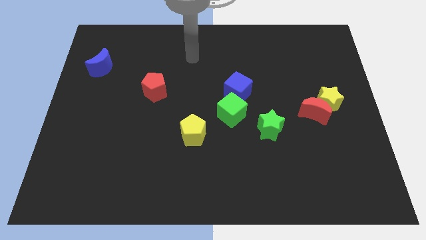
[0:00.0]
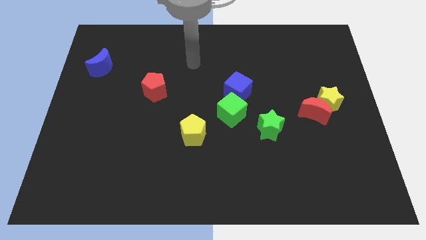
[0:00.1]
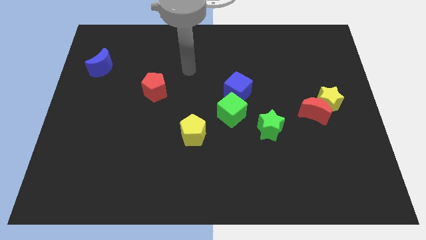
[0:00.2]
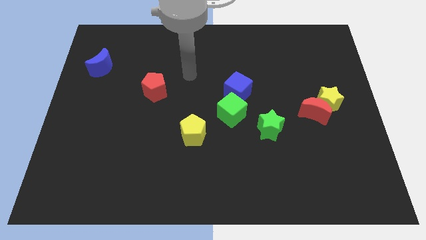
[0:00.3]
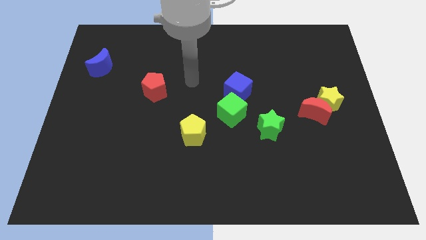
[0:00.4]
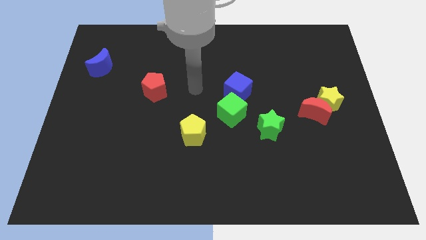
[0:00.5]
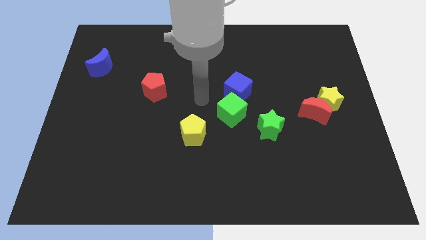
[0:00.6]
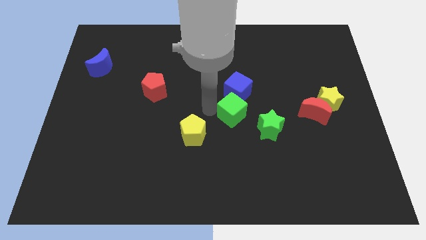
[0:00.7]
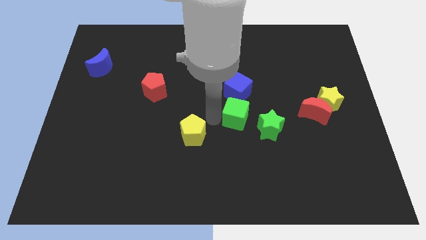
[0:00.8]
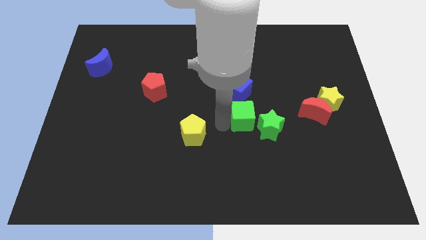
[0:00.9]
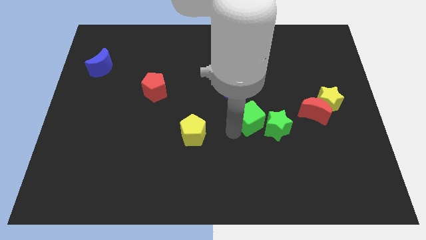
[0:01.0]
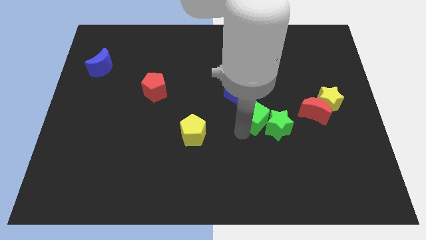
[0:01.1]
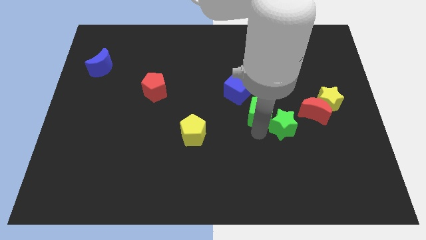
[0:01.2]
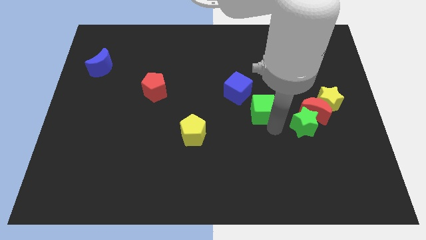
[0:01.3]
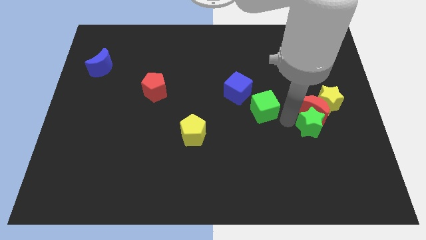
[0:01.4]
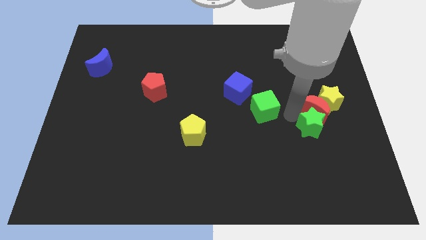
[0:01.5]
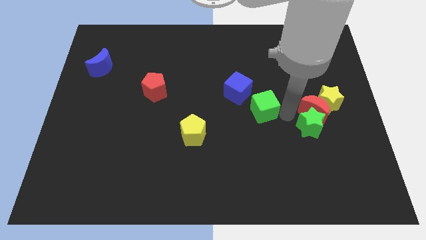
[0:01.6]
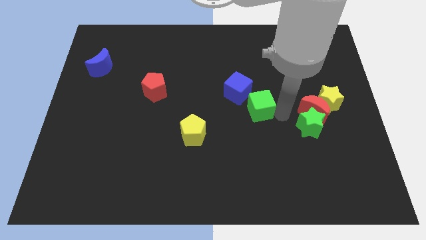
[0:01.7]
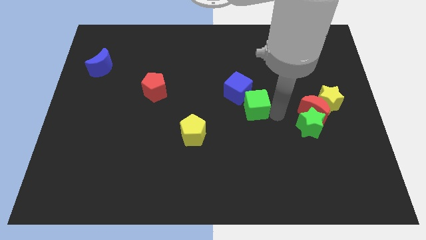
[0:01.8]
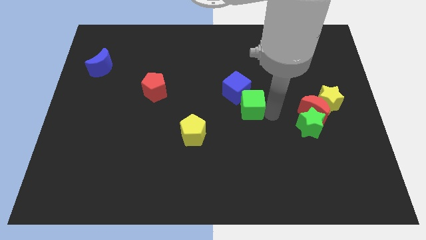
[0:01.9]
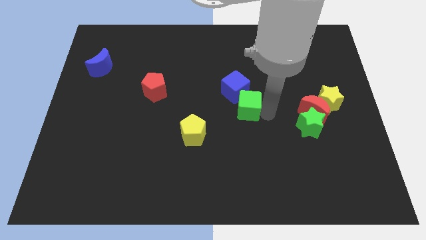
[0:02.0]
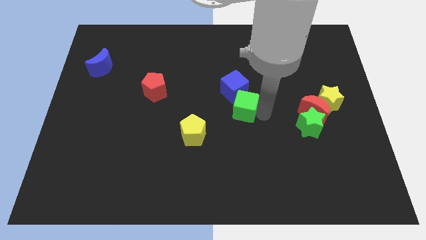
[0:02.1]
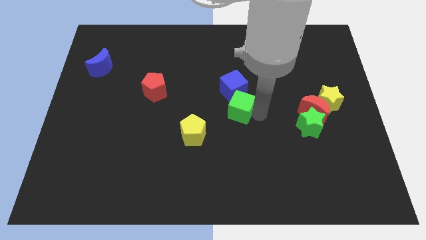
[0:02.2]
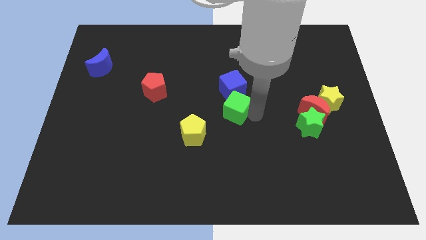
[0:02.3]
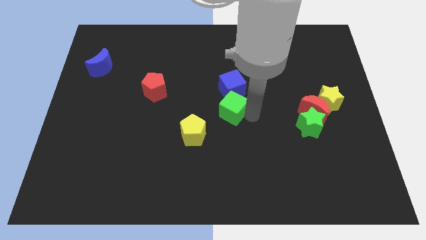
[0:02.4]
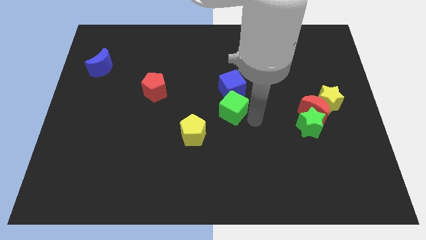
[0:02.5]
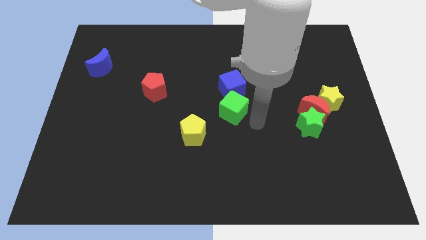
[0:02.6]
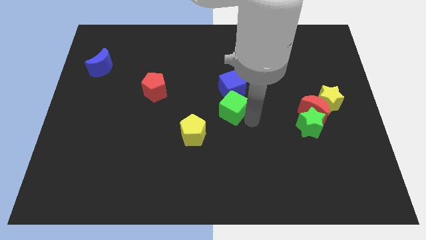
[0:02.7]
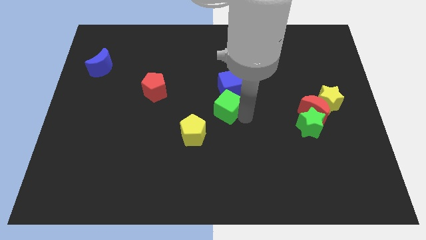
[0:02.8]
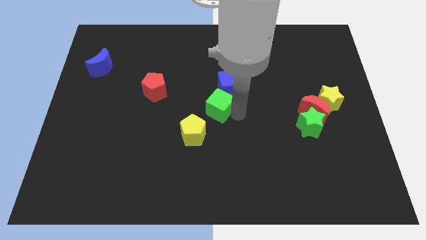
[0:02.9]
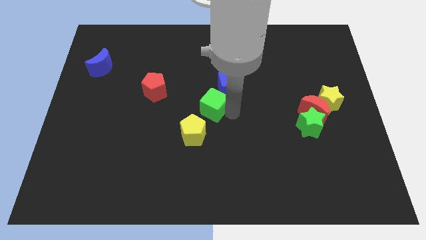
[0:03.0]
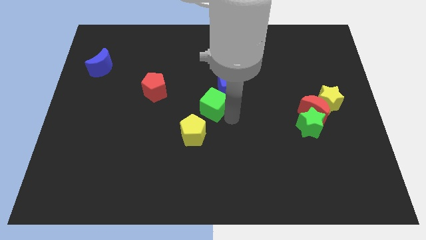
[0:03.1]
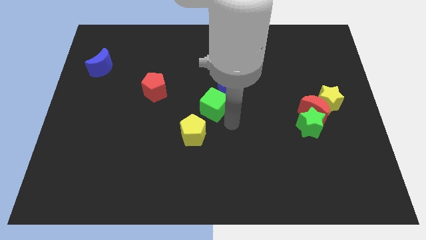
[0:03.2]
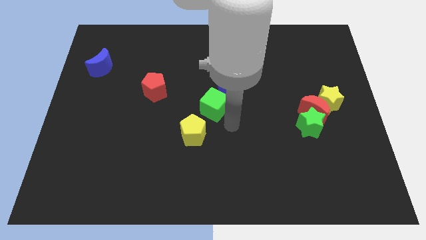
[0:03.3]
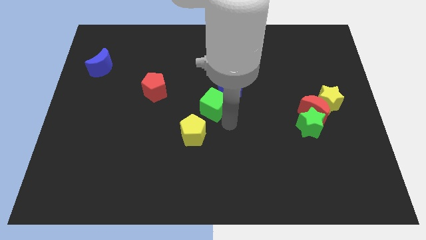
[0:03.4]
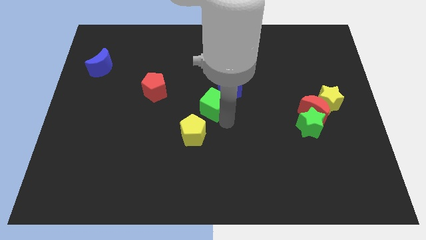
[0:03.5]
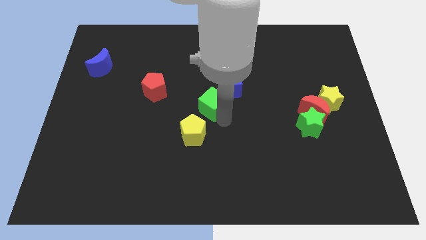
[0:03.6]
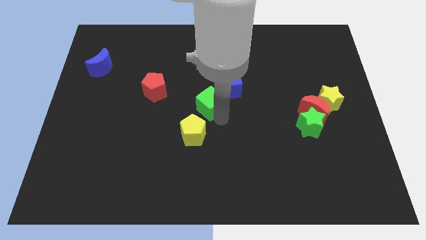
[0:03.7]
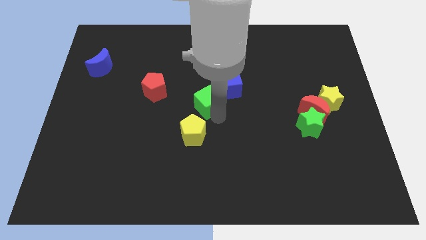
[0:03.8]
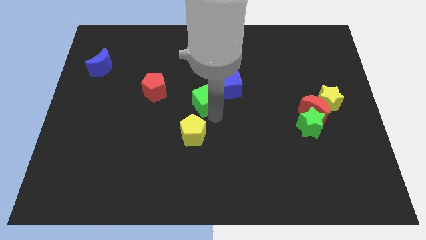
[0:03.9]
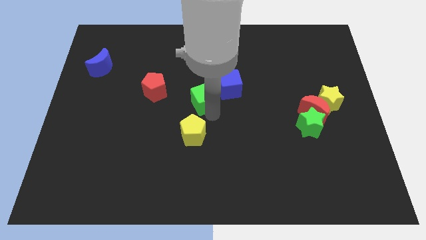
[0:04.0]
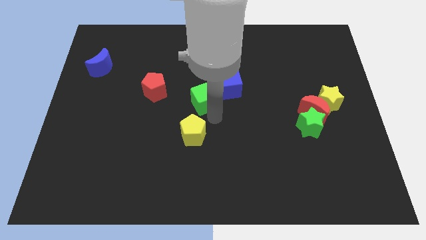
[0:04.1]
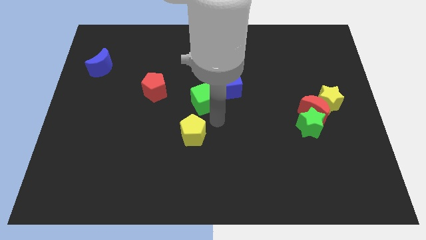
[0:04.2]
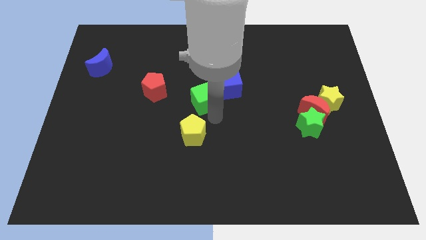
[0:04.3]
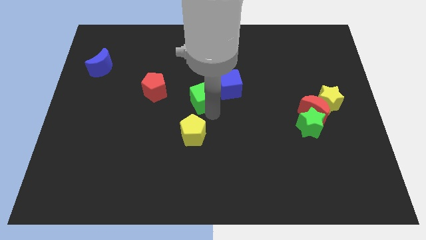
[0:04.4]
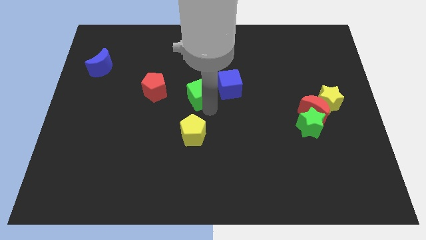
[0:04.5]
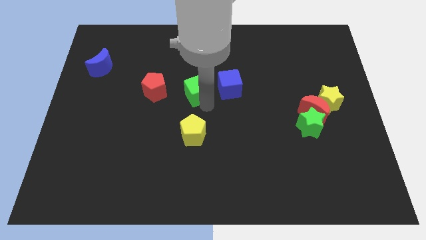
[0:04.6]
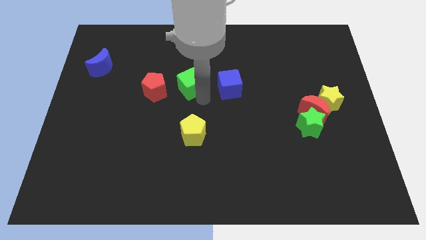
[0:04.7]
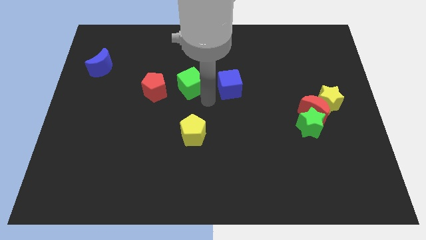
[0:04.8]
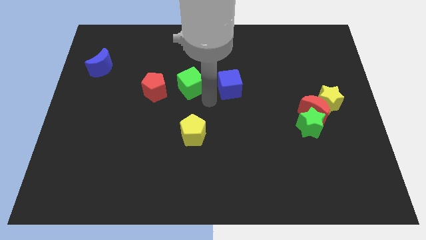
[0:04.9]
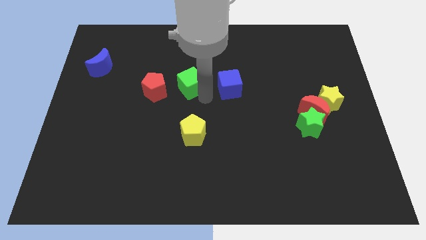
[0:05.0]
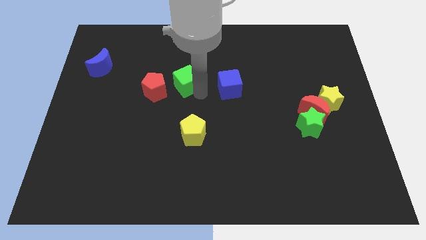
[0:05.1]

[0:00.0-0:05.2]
slide the green cube to the top right side of the red pentagon

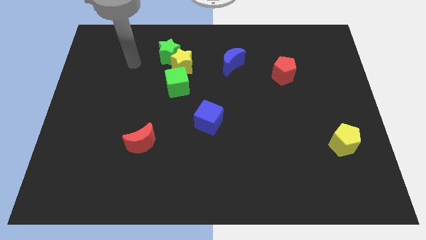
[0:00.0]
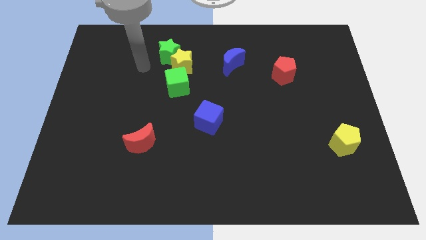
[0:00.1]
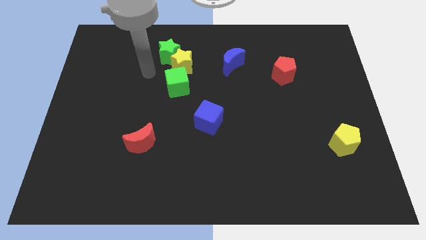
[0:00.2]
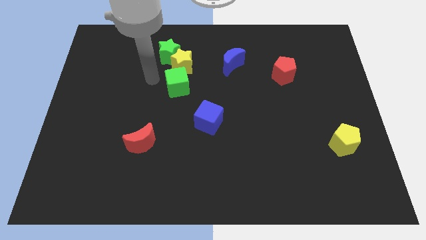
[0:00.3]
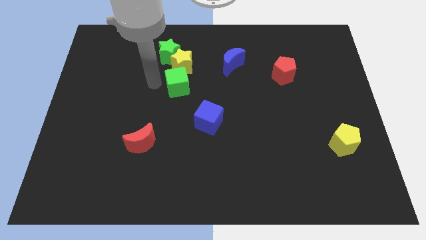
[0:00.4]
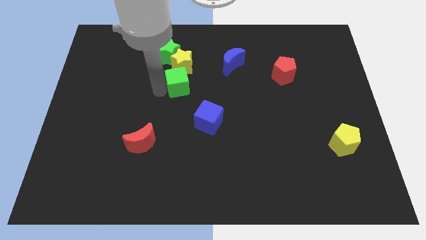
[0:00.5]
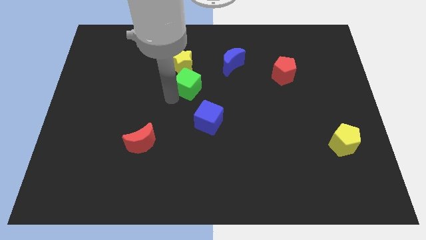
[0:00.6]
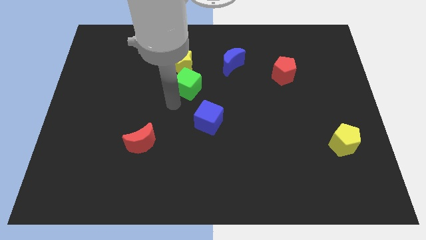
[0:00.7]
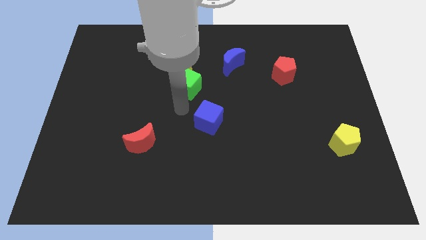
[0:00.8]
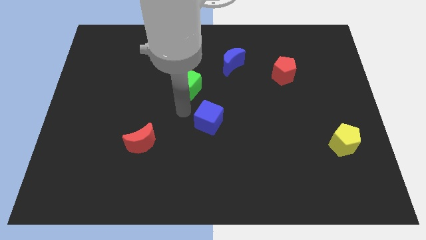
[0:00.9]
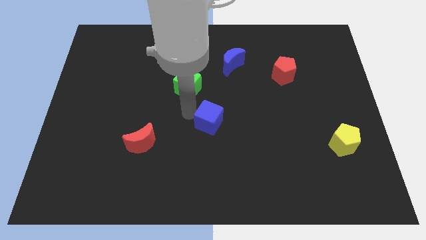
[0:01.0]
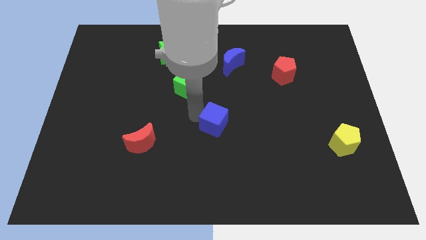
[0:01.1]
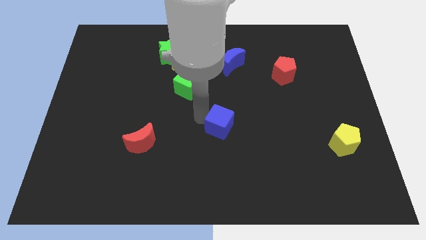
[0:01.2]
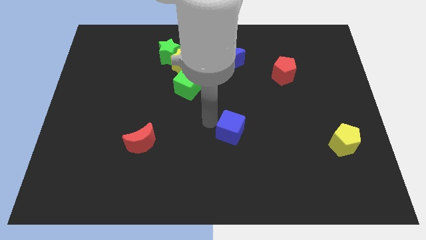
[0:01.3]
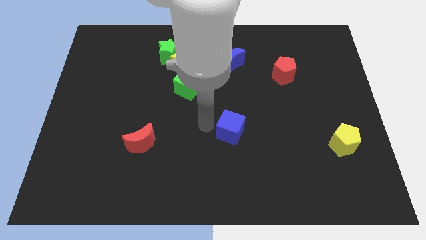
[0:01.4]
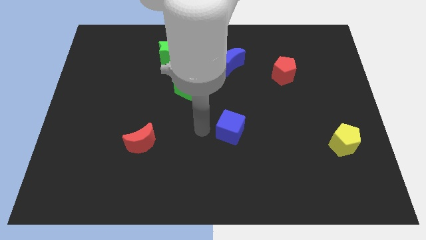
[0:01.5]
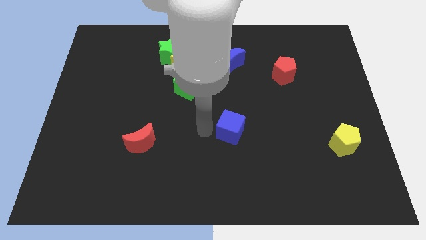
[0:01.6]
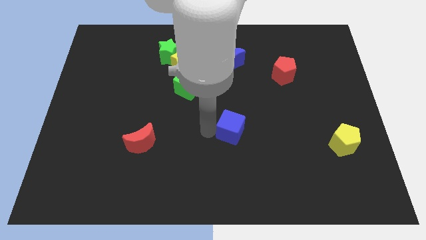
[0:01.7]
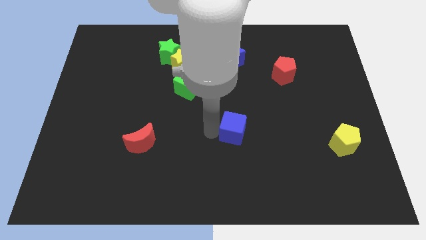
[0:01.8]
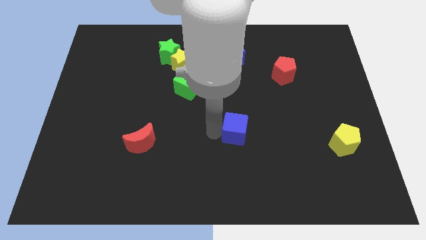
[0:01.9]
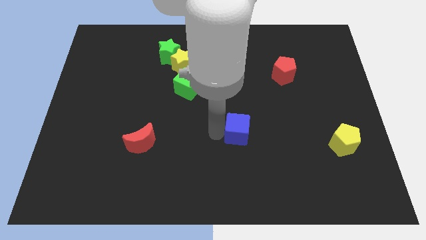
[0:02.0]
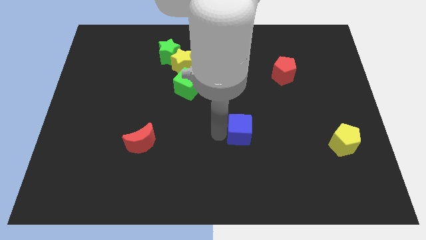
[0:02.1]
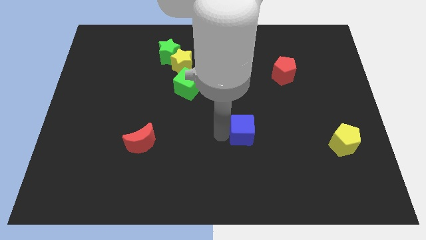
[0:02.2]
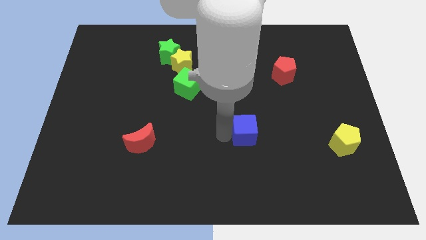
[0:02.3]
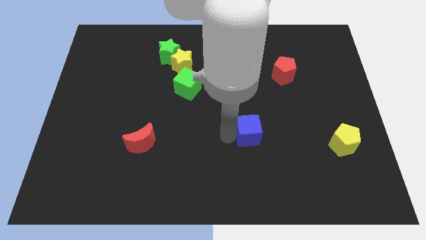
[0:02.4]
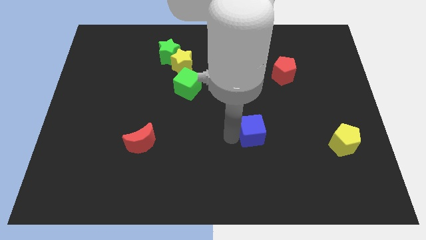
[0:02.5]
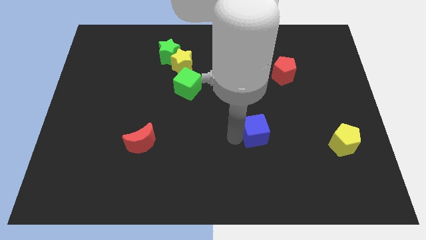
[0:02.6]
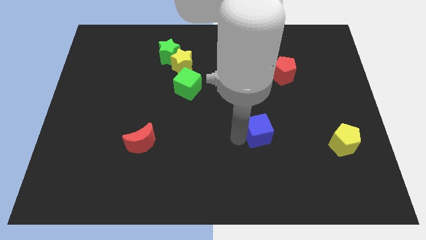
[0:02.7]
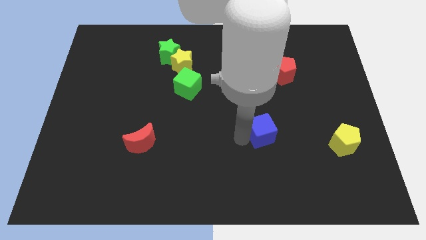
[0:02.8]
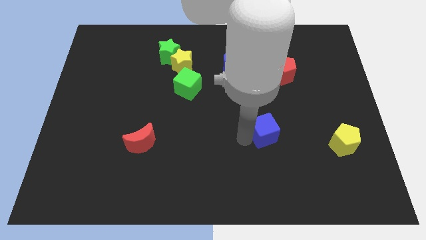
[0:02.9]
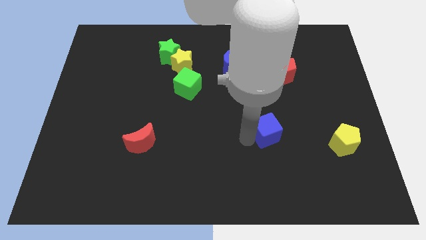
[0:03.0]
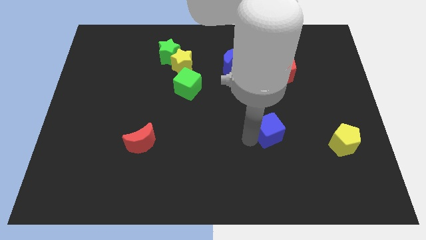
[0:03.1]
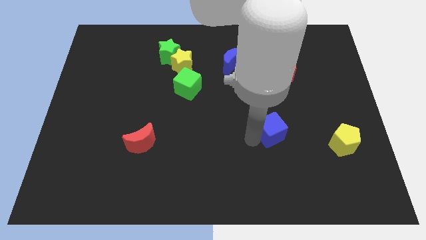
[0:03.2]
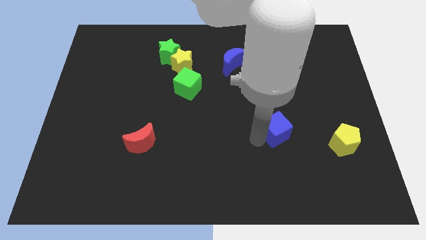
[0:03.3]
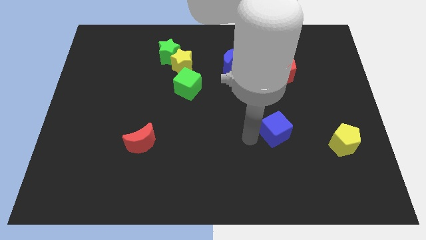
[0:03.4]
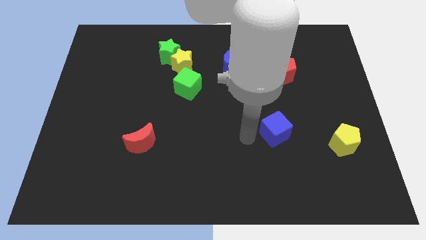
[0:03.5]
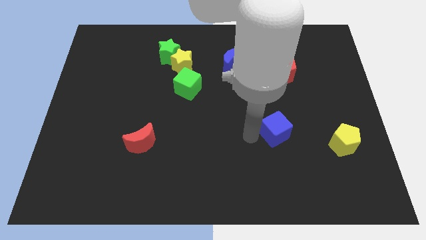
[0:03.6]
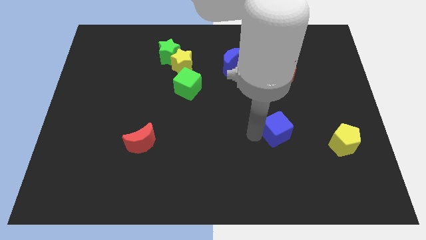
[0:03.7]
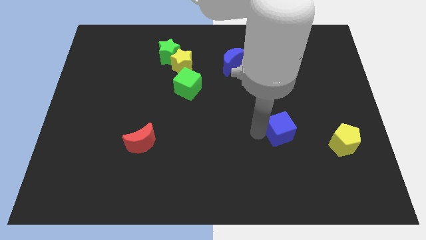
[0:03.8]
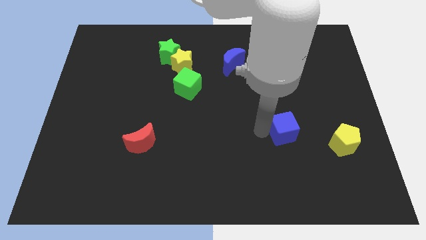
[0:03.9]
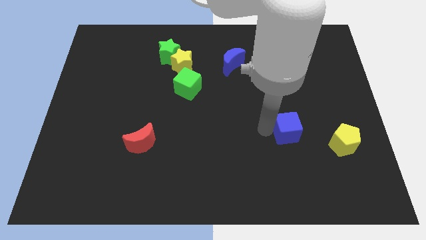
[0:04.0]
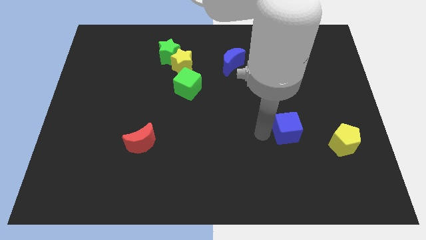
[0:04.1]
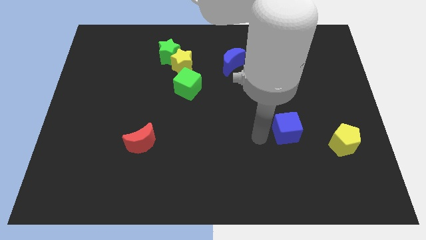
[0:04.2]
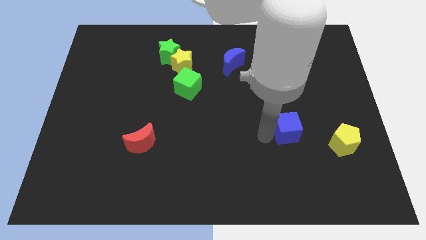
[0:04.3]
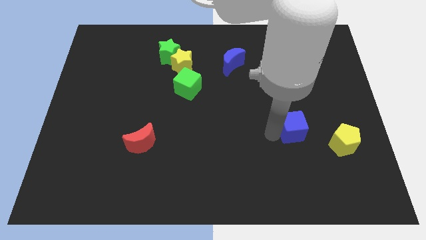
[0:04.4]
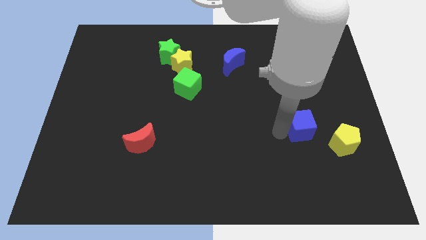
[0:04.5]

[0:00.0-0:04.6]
slide the blue cube to the top left side of the yellow pentagon
